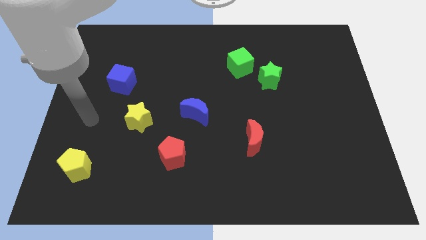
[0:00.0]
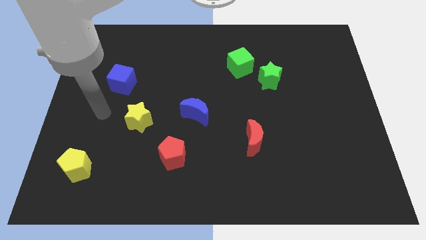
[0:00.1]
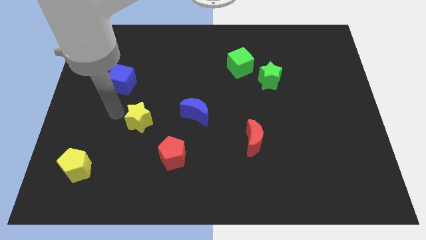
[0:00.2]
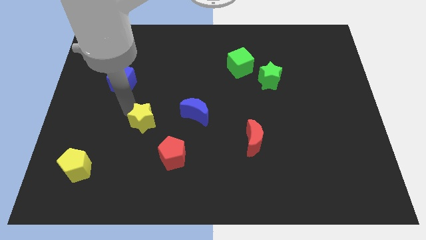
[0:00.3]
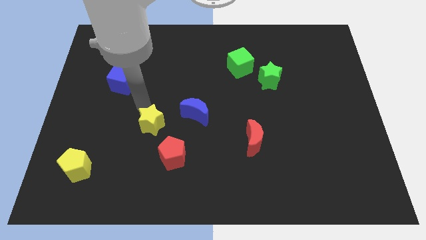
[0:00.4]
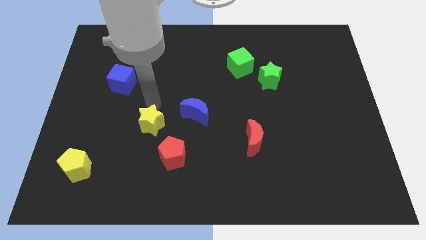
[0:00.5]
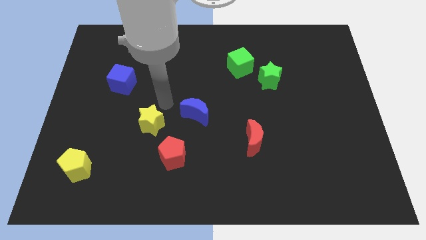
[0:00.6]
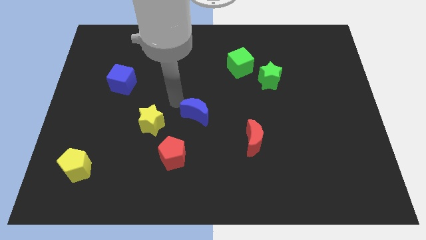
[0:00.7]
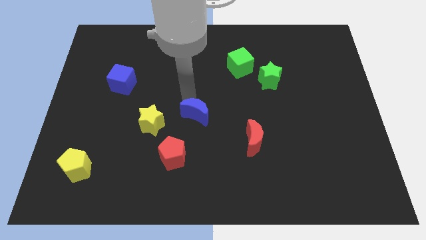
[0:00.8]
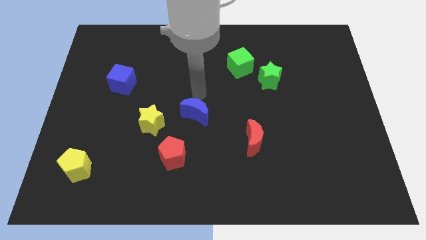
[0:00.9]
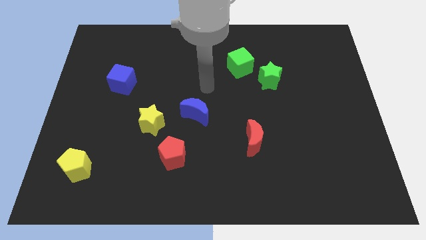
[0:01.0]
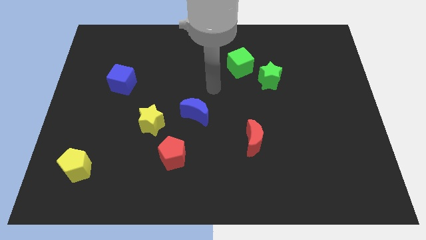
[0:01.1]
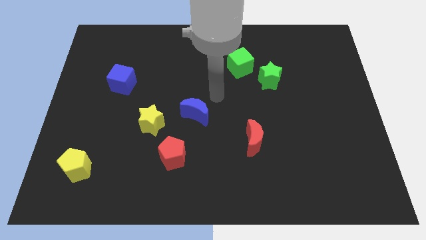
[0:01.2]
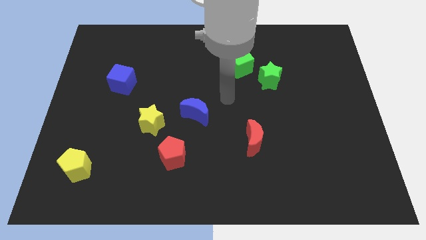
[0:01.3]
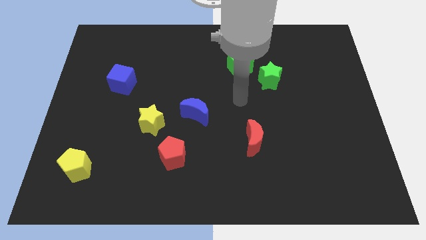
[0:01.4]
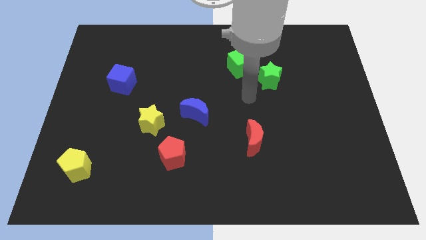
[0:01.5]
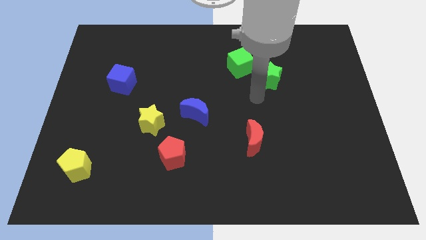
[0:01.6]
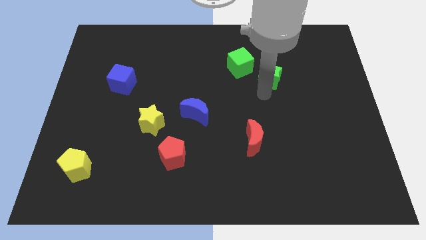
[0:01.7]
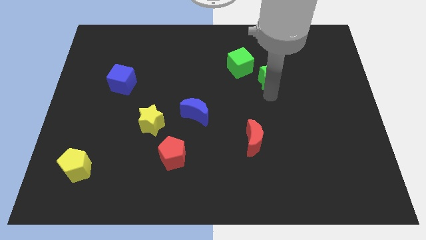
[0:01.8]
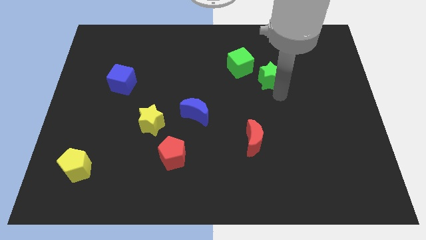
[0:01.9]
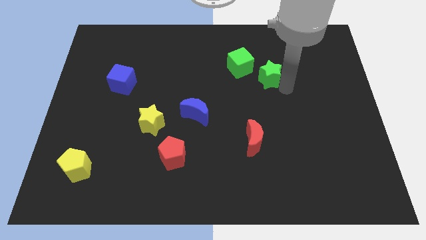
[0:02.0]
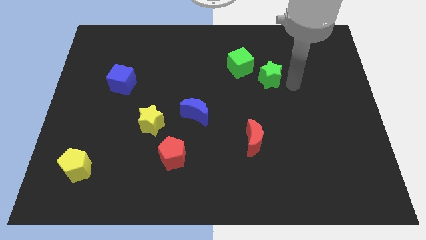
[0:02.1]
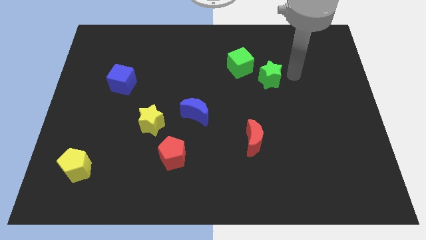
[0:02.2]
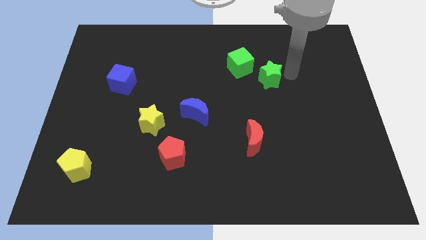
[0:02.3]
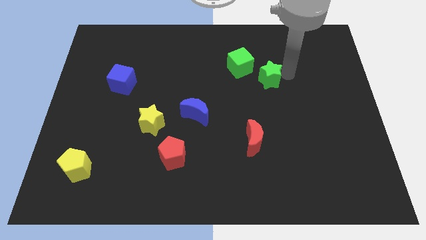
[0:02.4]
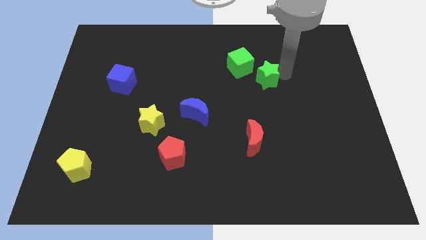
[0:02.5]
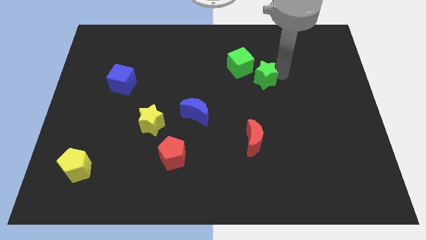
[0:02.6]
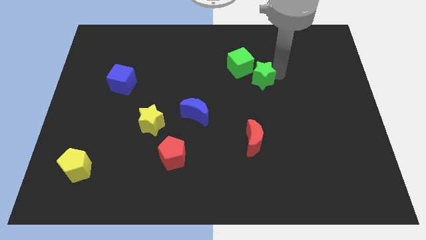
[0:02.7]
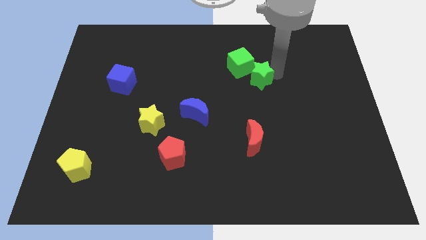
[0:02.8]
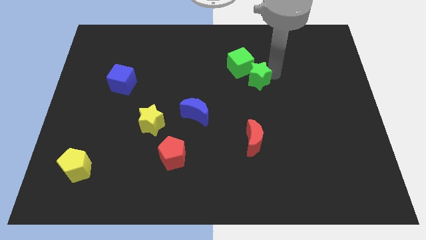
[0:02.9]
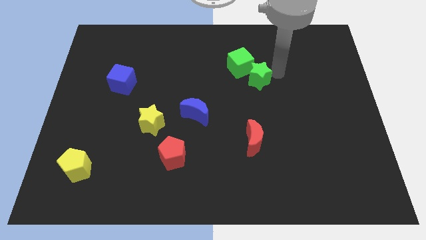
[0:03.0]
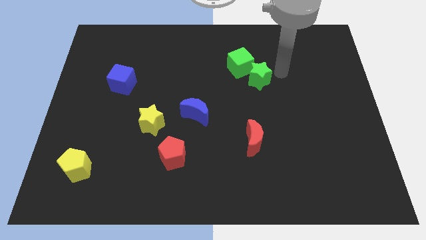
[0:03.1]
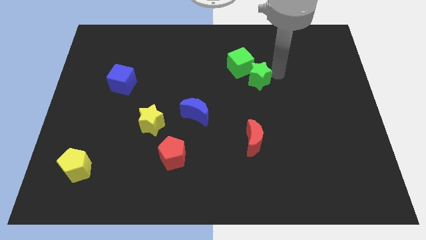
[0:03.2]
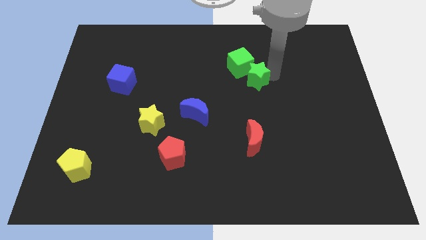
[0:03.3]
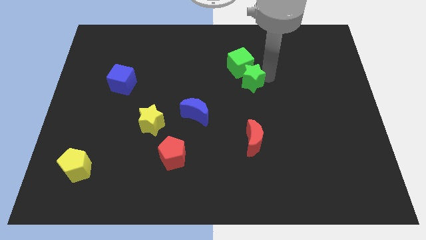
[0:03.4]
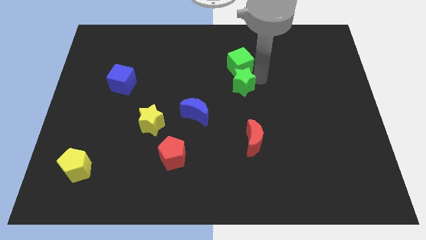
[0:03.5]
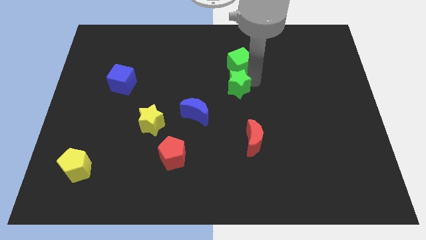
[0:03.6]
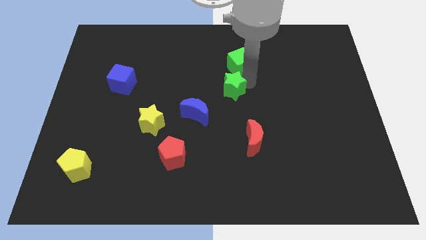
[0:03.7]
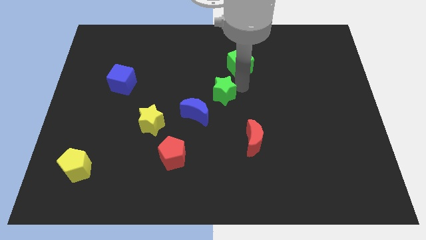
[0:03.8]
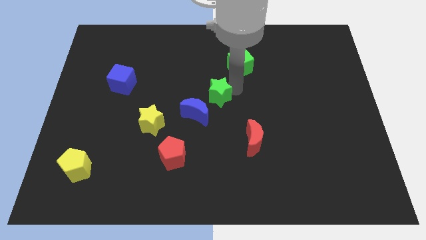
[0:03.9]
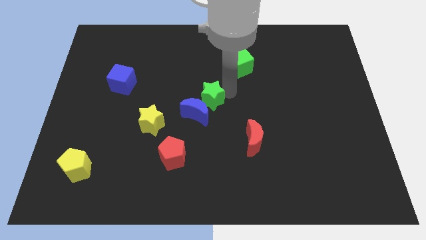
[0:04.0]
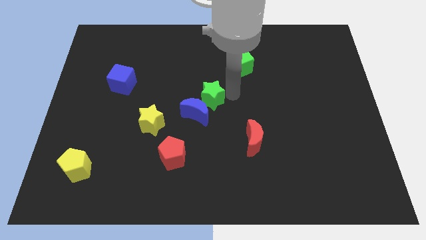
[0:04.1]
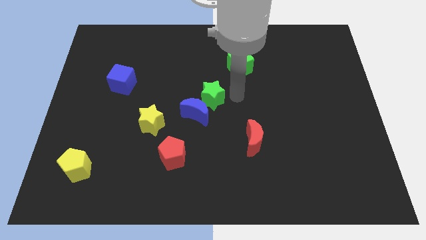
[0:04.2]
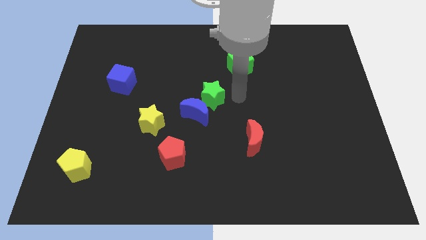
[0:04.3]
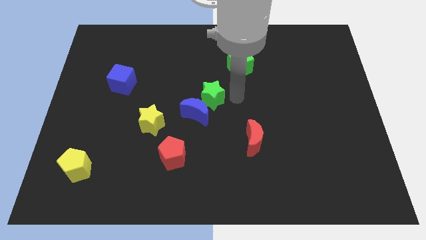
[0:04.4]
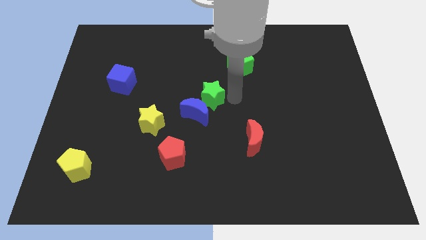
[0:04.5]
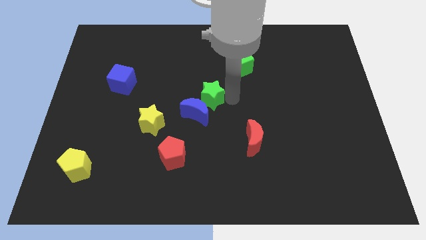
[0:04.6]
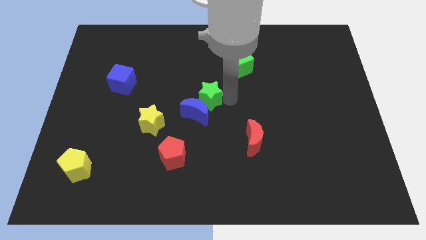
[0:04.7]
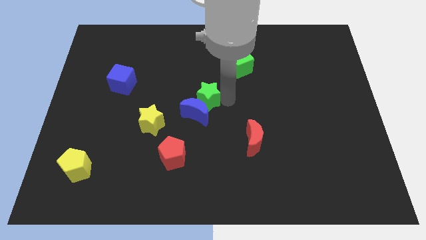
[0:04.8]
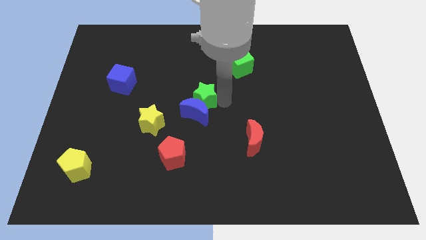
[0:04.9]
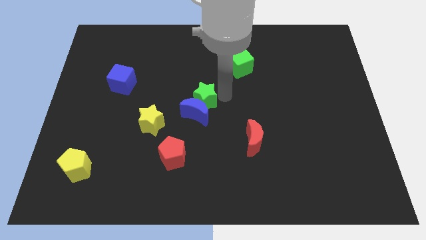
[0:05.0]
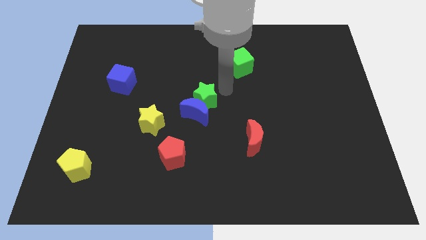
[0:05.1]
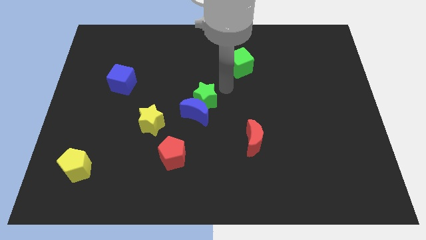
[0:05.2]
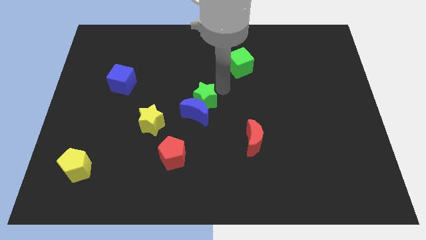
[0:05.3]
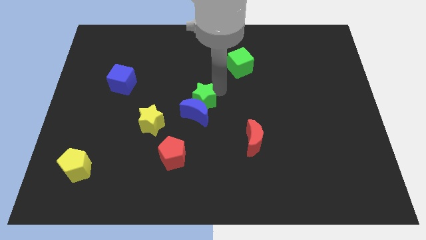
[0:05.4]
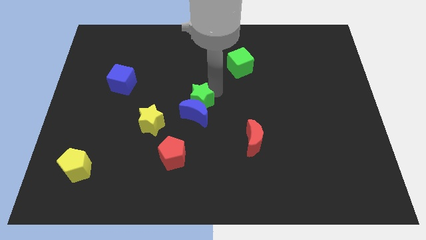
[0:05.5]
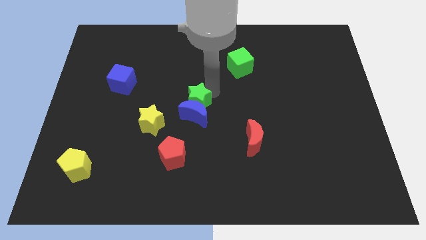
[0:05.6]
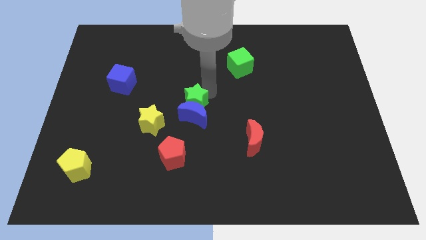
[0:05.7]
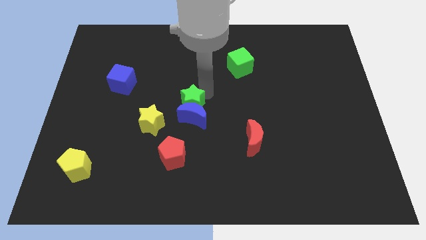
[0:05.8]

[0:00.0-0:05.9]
push the green star to the top of the red pentagon
